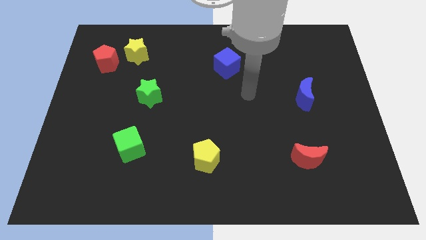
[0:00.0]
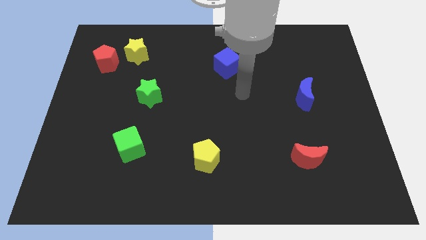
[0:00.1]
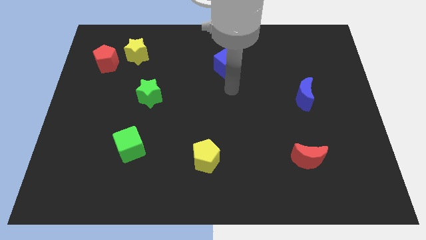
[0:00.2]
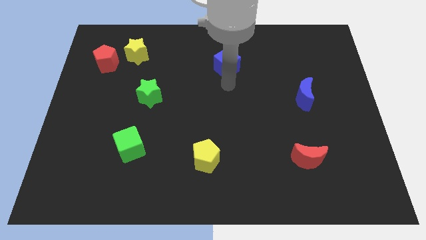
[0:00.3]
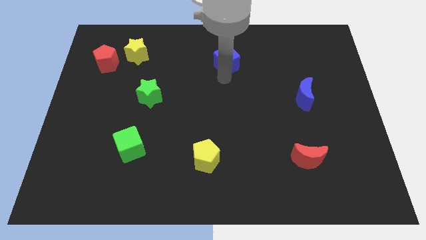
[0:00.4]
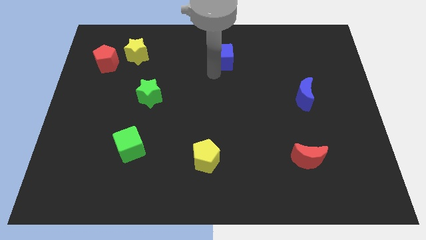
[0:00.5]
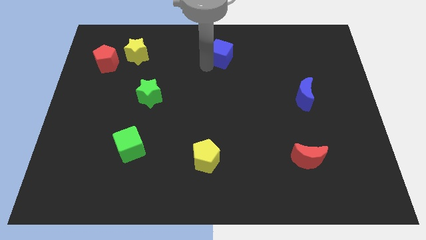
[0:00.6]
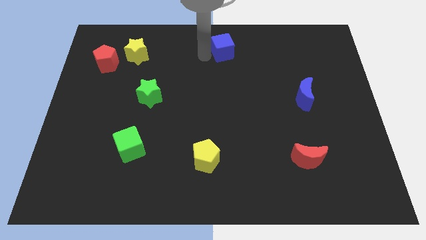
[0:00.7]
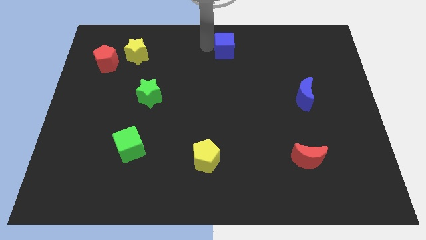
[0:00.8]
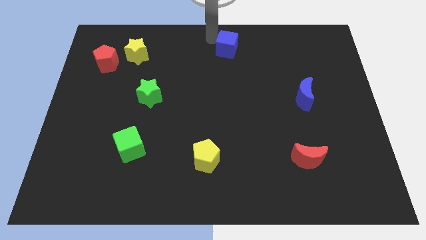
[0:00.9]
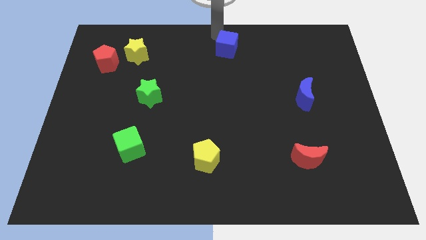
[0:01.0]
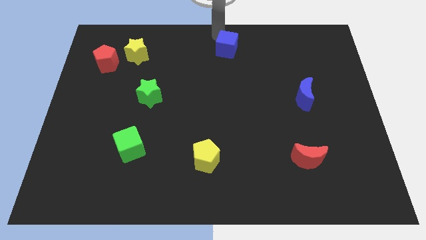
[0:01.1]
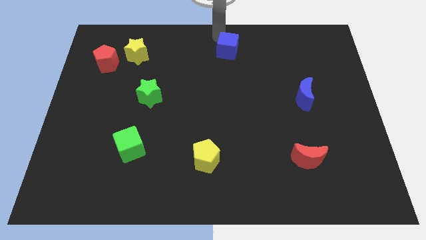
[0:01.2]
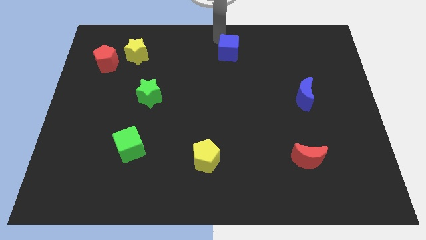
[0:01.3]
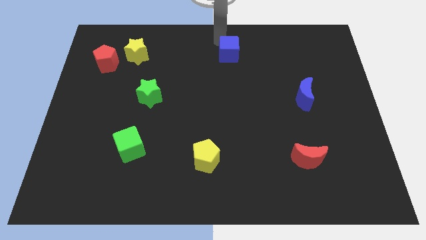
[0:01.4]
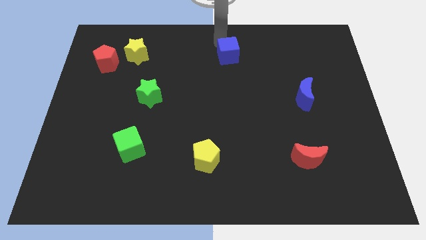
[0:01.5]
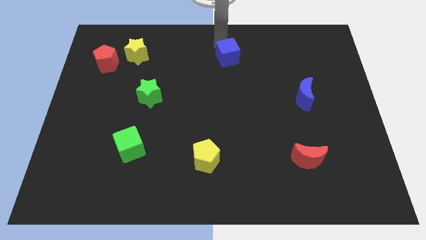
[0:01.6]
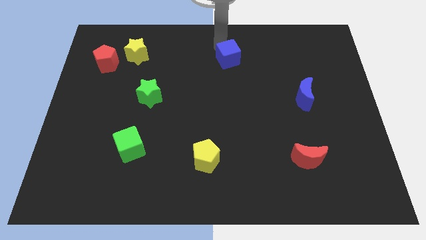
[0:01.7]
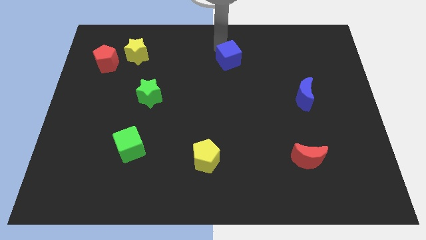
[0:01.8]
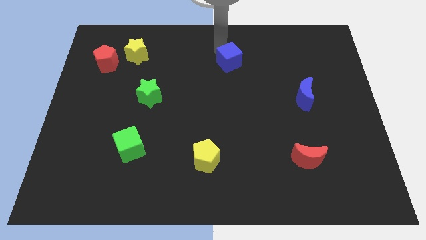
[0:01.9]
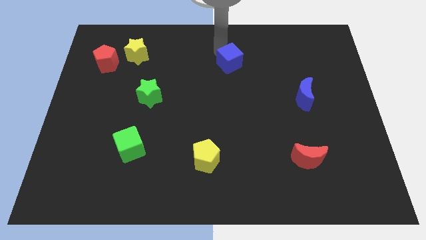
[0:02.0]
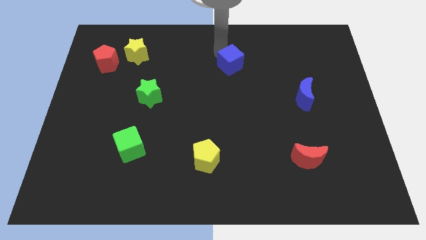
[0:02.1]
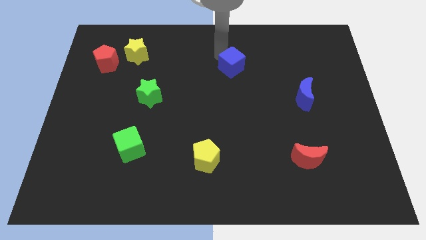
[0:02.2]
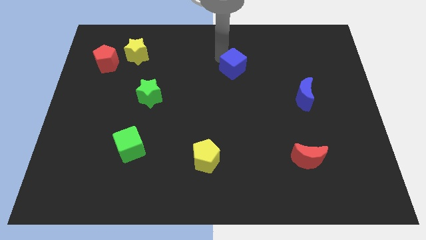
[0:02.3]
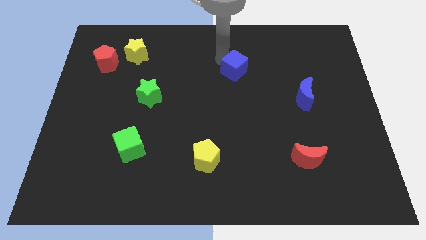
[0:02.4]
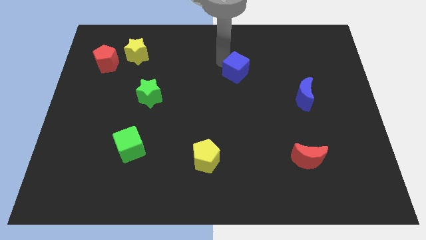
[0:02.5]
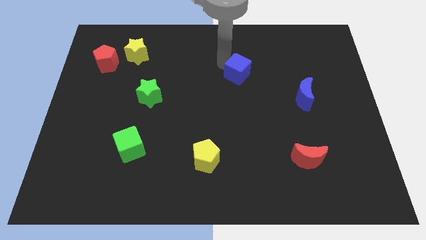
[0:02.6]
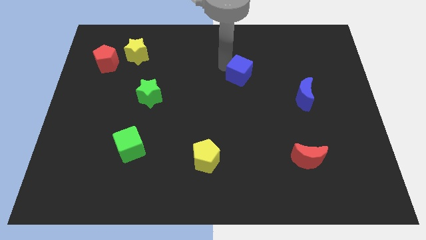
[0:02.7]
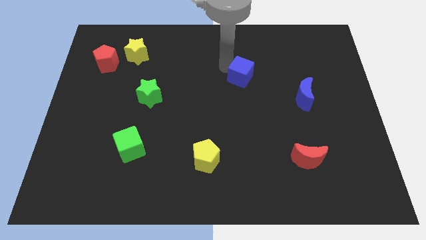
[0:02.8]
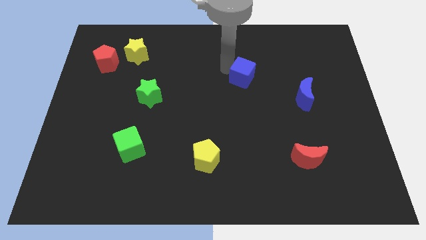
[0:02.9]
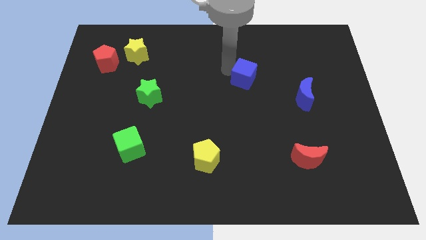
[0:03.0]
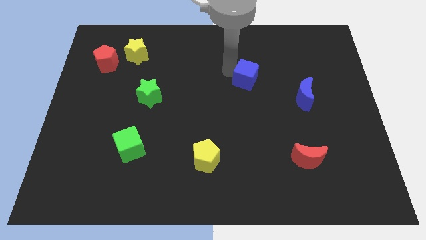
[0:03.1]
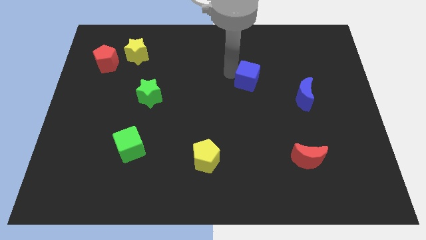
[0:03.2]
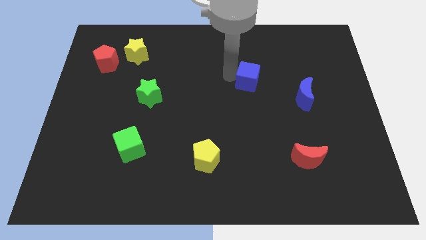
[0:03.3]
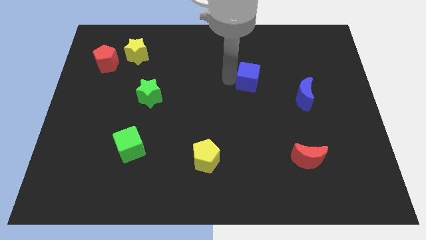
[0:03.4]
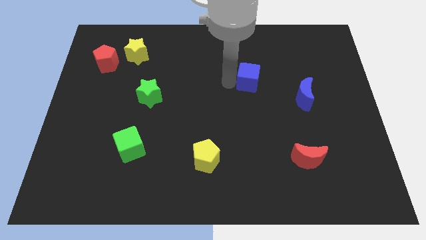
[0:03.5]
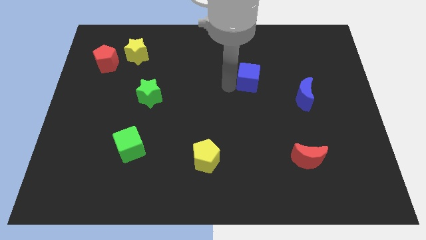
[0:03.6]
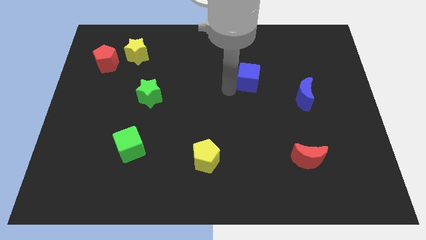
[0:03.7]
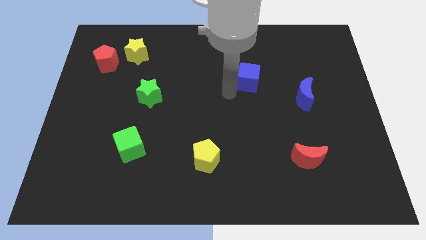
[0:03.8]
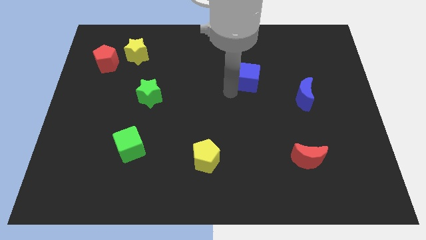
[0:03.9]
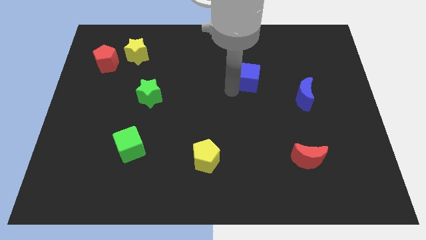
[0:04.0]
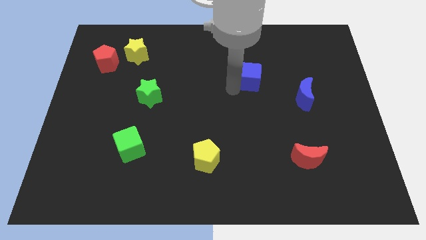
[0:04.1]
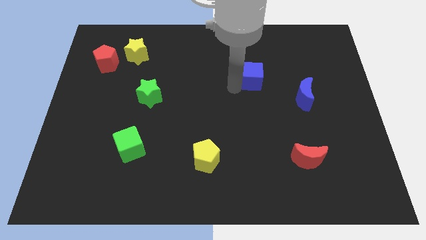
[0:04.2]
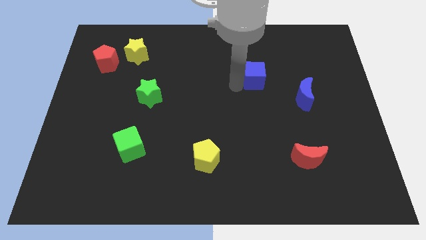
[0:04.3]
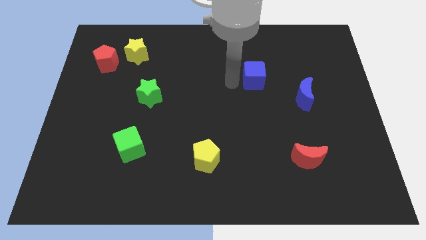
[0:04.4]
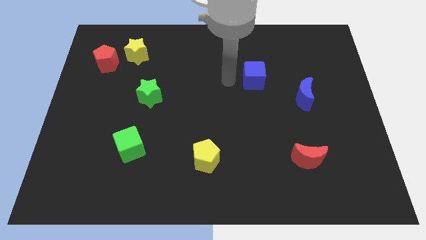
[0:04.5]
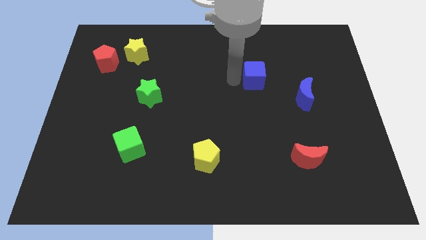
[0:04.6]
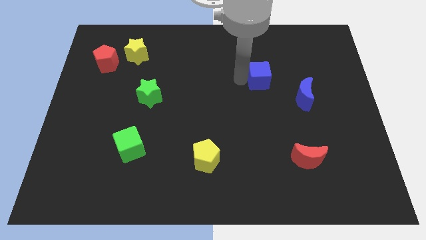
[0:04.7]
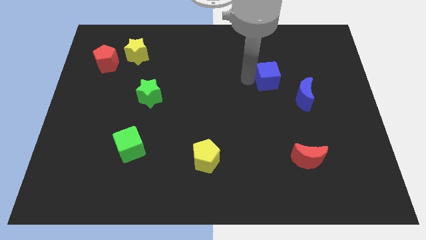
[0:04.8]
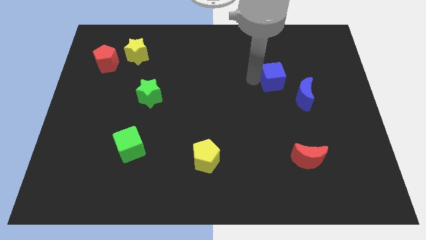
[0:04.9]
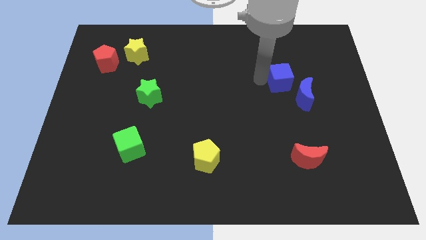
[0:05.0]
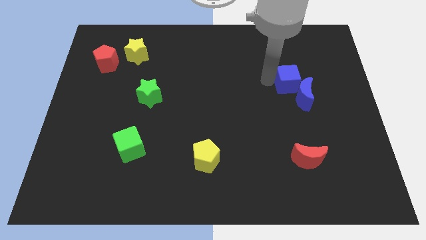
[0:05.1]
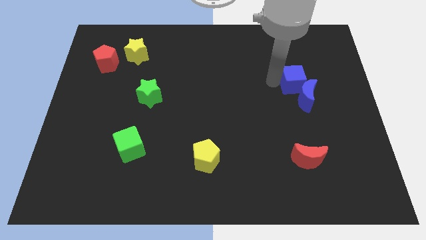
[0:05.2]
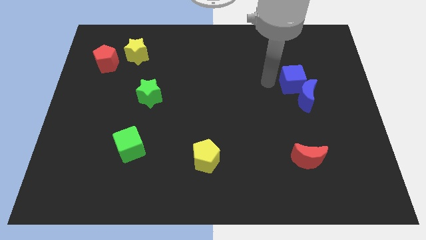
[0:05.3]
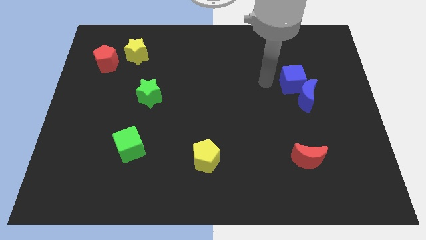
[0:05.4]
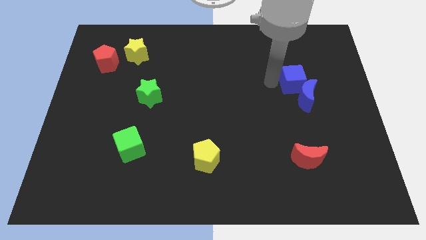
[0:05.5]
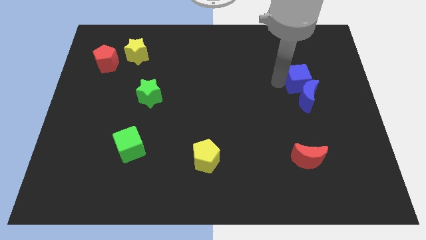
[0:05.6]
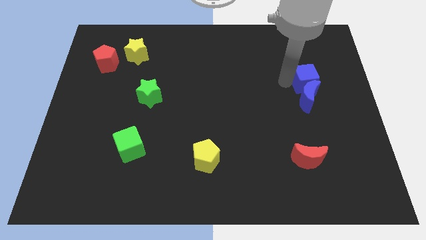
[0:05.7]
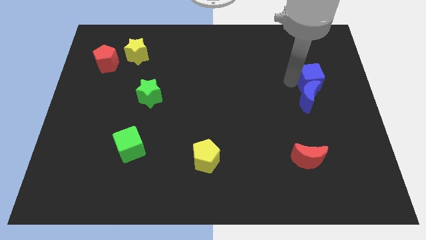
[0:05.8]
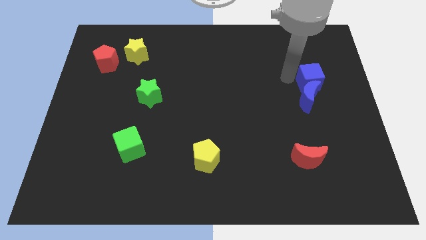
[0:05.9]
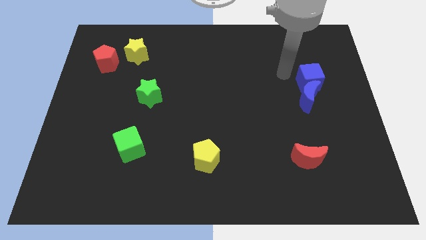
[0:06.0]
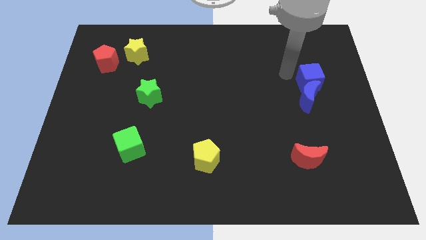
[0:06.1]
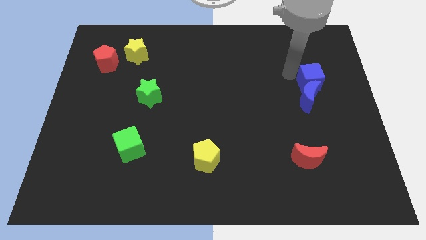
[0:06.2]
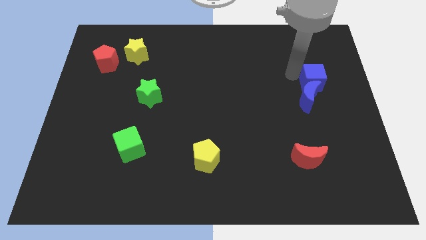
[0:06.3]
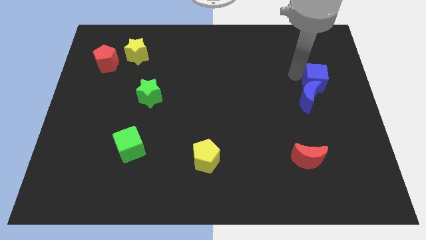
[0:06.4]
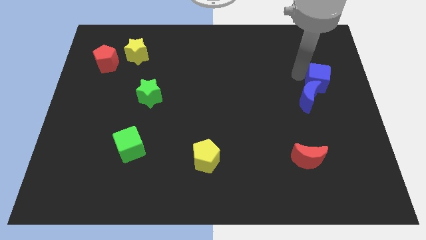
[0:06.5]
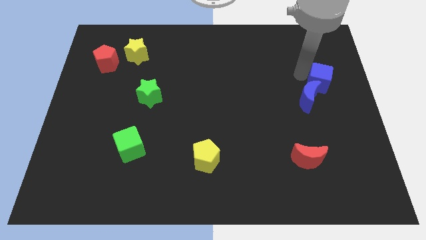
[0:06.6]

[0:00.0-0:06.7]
push the blue cube to the center right
